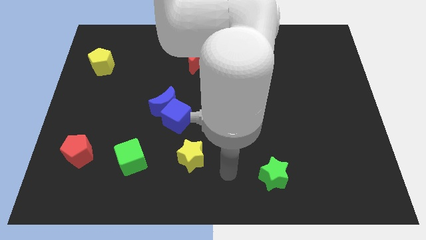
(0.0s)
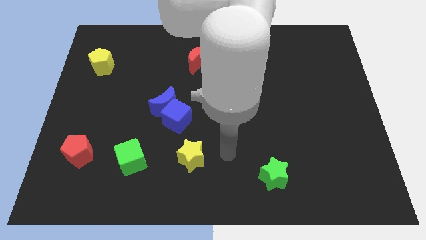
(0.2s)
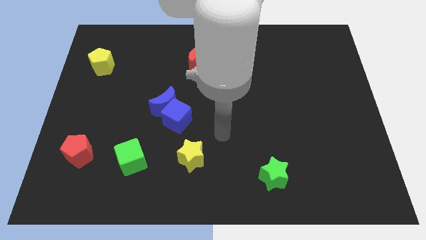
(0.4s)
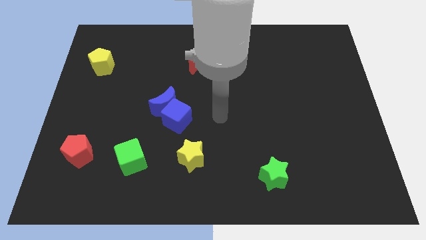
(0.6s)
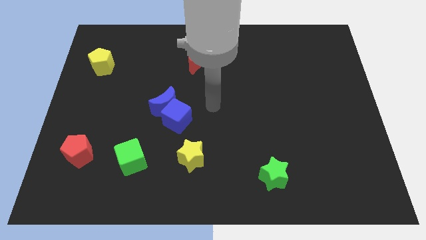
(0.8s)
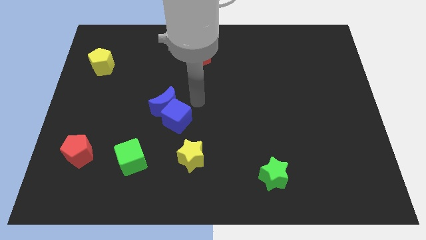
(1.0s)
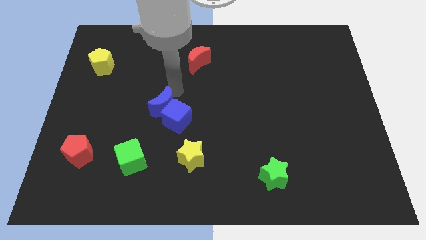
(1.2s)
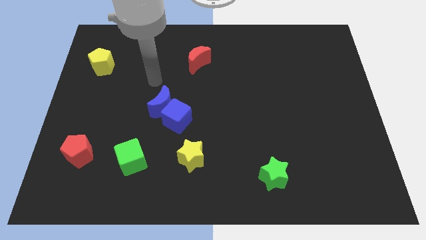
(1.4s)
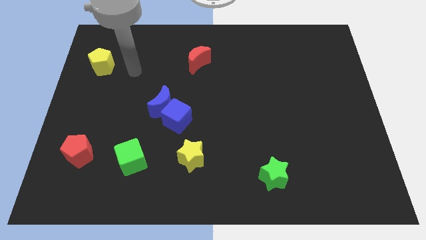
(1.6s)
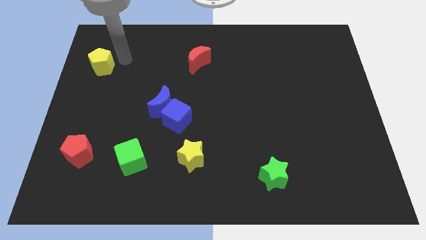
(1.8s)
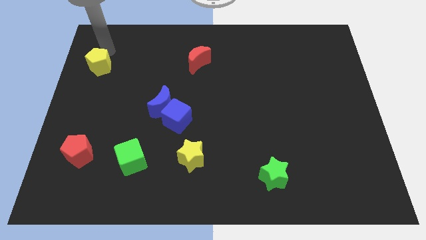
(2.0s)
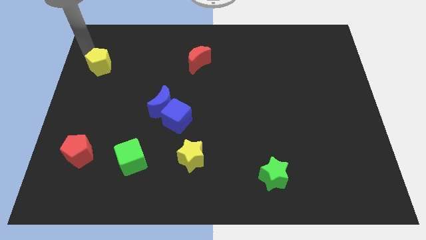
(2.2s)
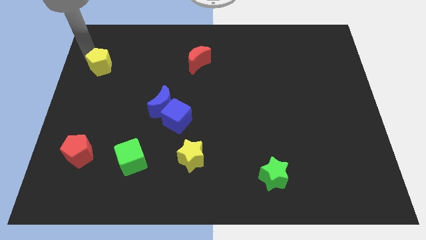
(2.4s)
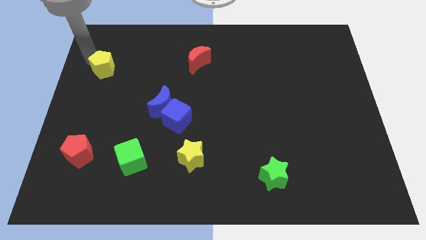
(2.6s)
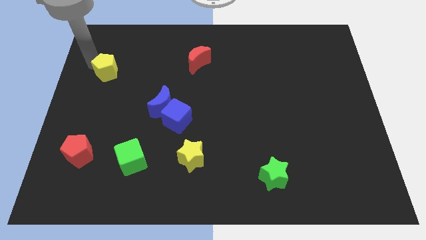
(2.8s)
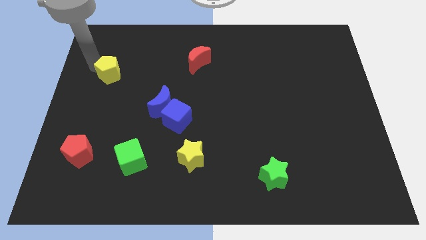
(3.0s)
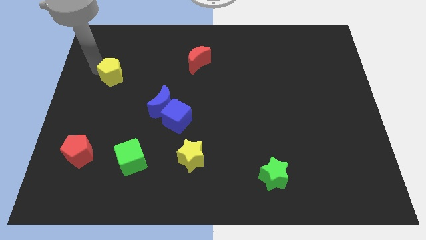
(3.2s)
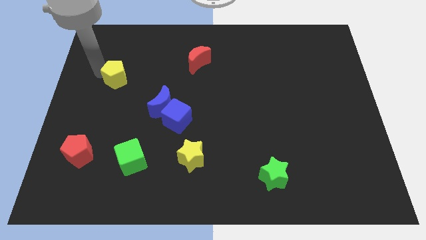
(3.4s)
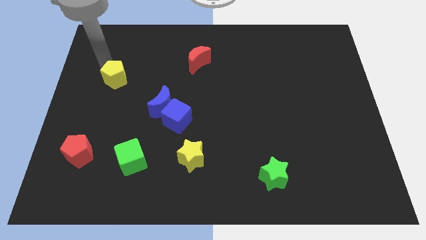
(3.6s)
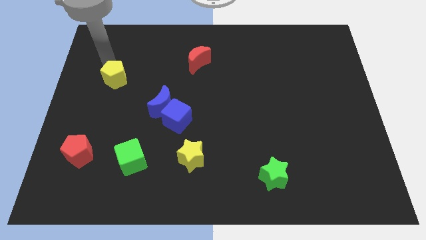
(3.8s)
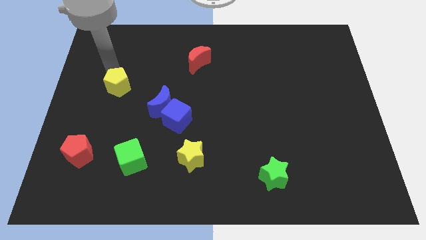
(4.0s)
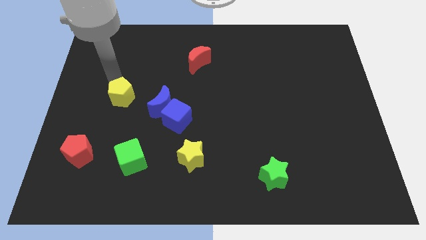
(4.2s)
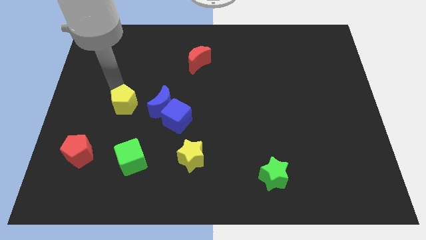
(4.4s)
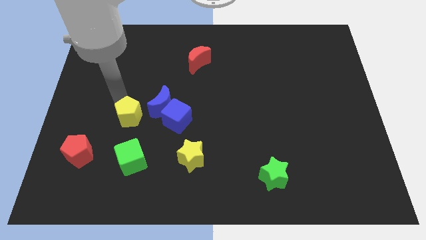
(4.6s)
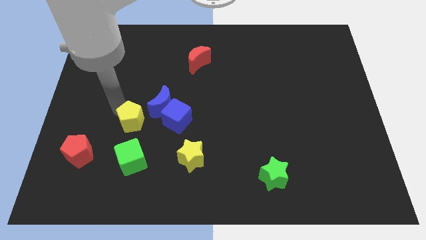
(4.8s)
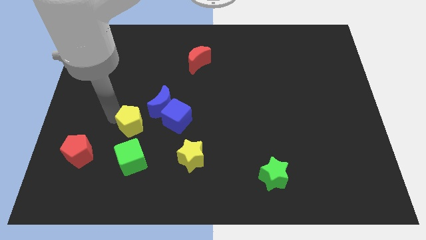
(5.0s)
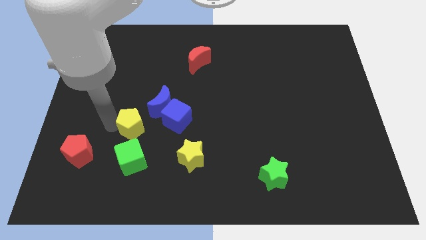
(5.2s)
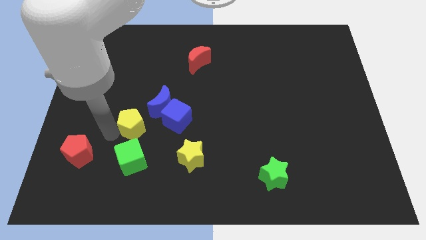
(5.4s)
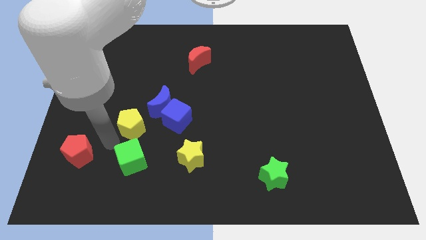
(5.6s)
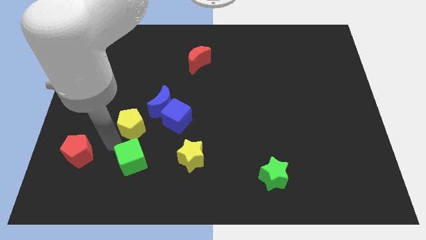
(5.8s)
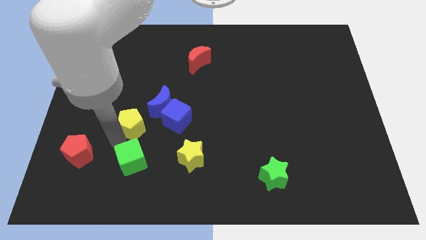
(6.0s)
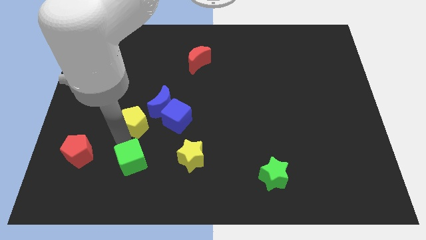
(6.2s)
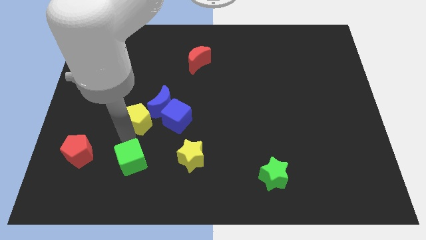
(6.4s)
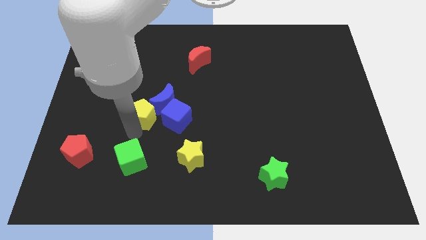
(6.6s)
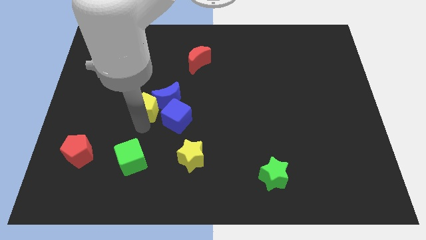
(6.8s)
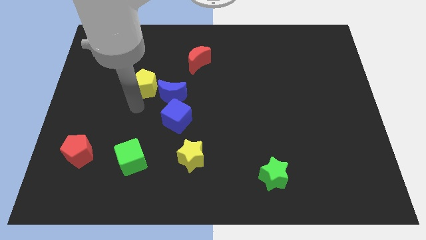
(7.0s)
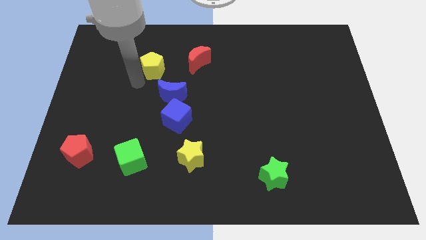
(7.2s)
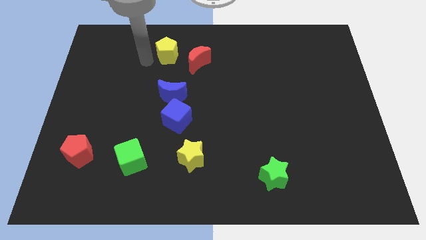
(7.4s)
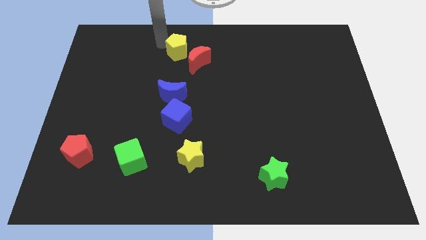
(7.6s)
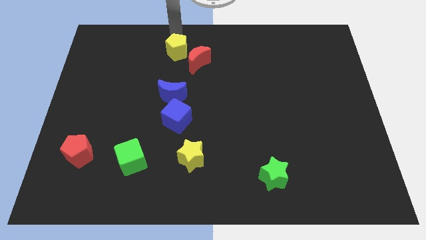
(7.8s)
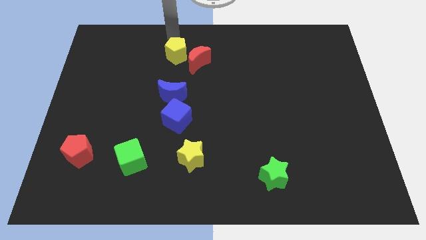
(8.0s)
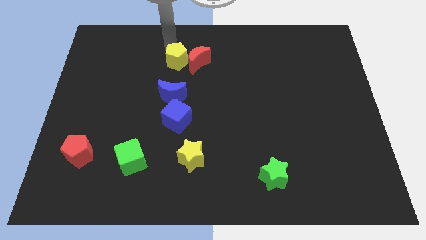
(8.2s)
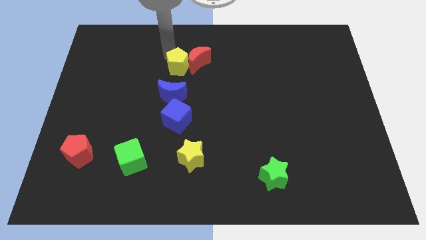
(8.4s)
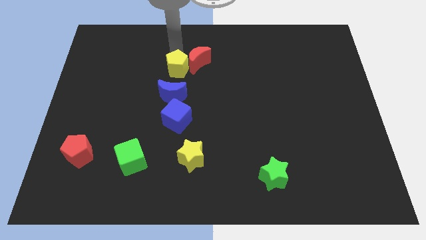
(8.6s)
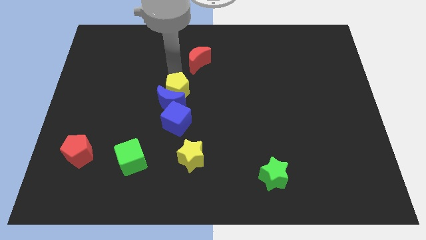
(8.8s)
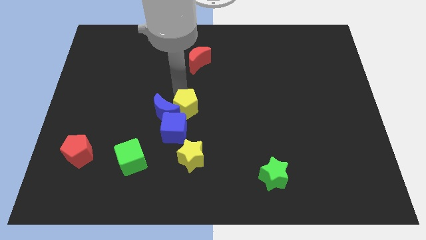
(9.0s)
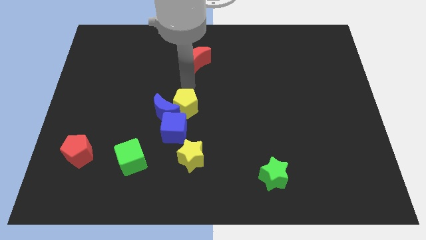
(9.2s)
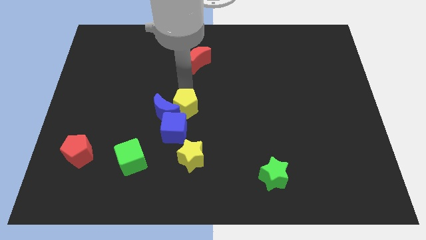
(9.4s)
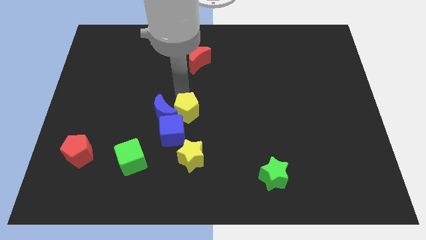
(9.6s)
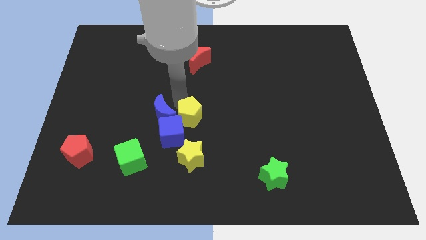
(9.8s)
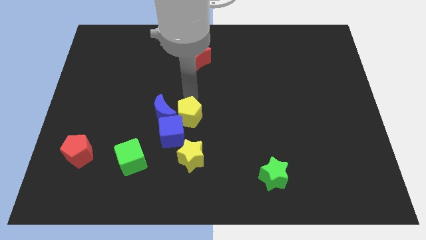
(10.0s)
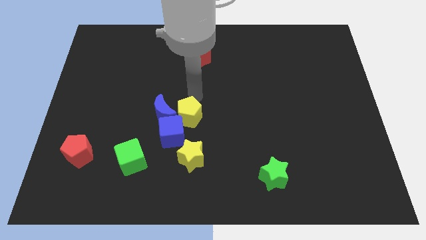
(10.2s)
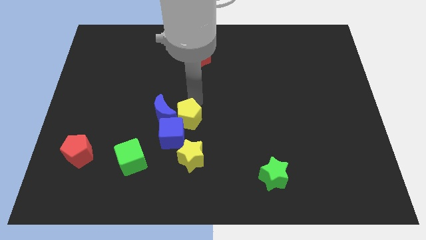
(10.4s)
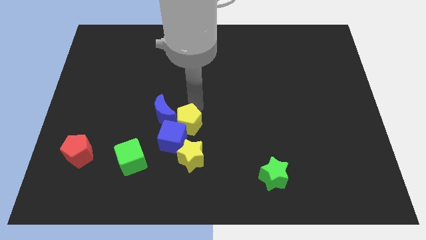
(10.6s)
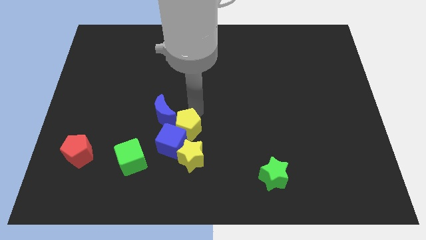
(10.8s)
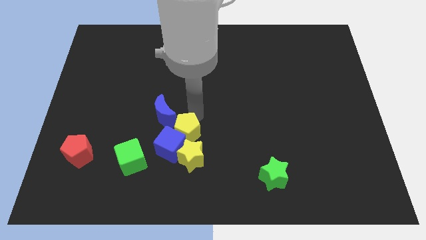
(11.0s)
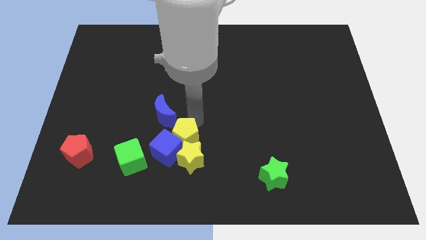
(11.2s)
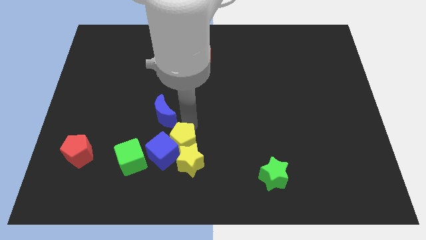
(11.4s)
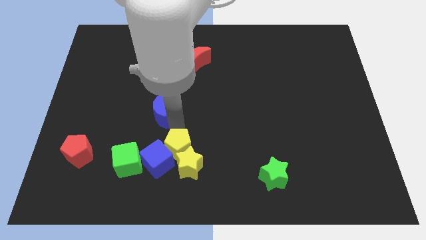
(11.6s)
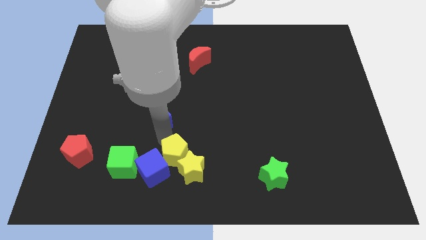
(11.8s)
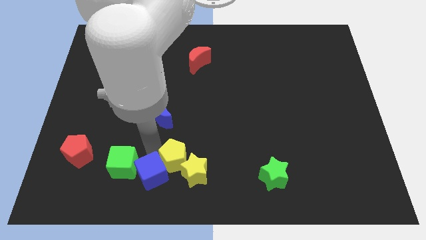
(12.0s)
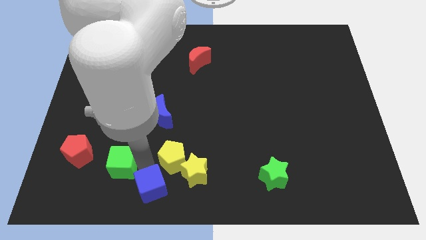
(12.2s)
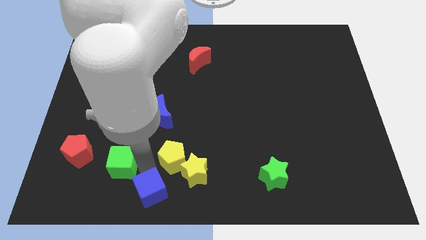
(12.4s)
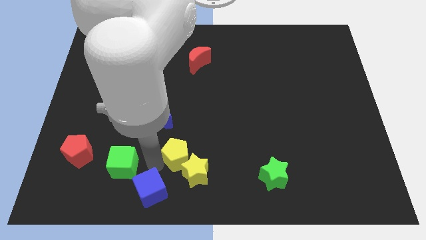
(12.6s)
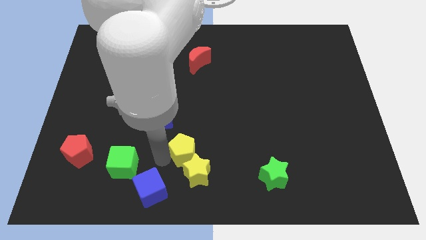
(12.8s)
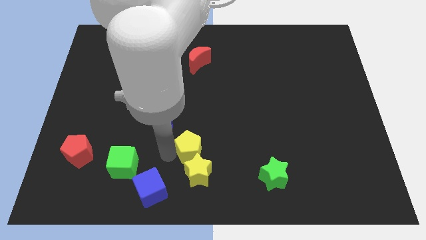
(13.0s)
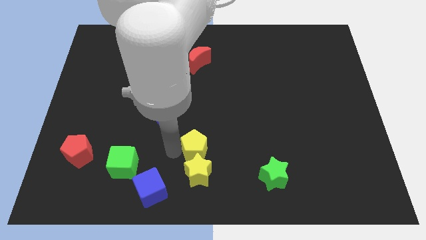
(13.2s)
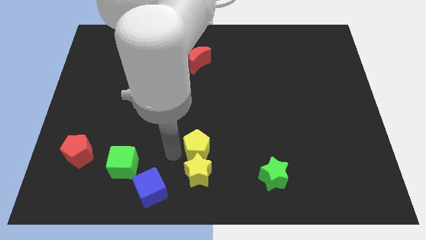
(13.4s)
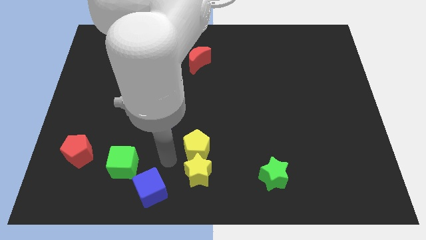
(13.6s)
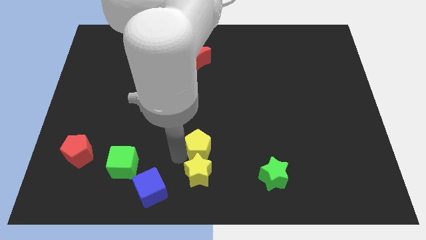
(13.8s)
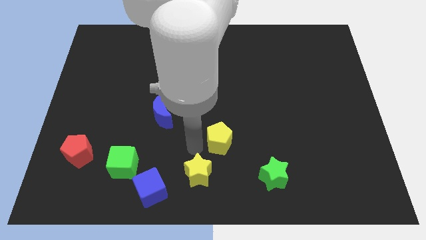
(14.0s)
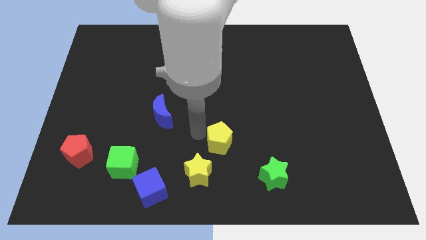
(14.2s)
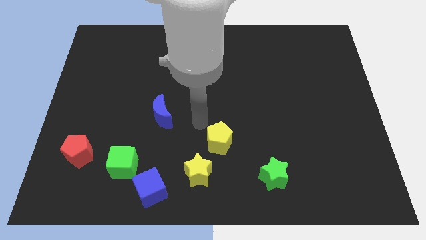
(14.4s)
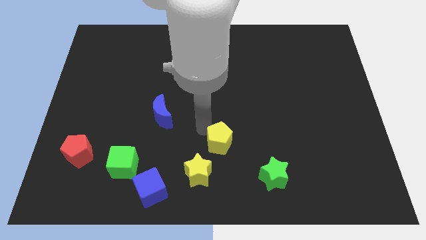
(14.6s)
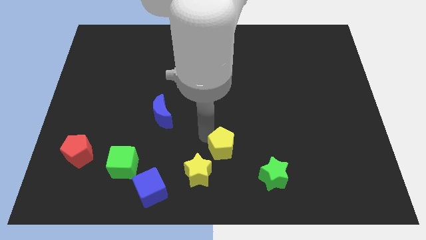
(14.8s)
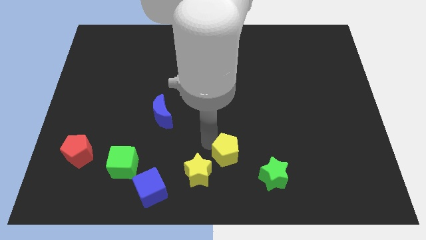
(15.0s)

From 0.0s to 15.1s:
move the yellow pentagon to the right side of the yellow star
